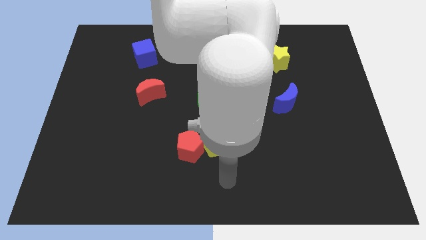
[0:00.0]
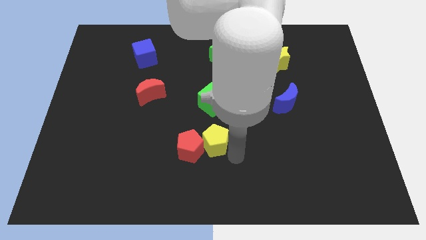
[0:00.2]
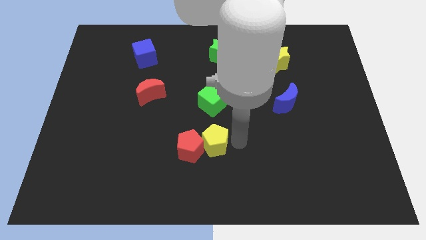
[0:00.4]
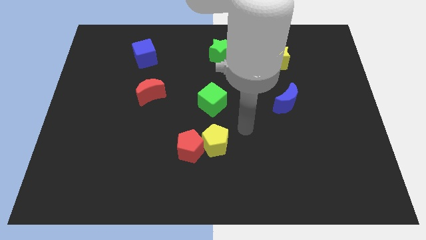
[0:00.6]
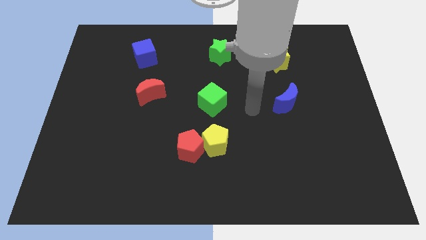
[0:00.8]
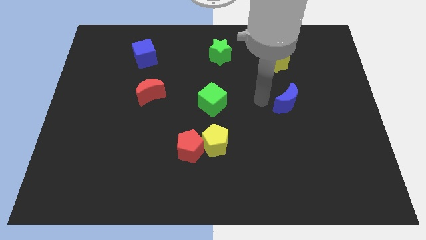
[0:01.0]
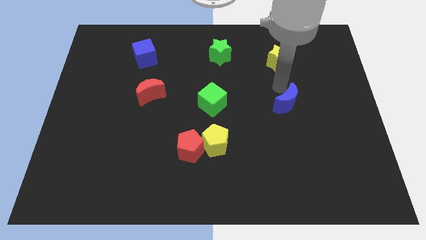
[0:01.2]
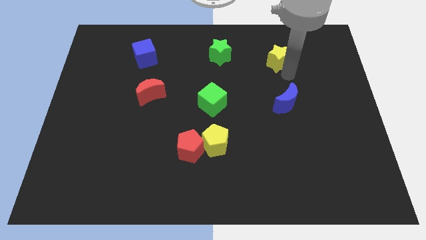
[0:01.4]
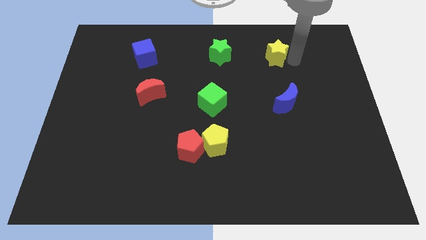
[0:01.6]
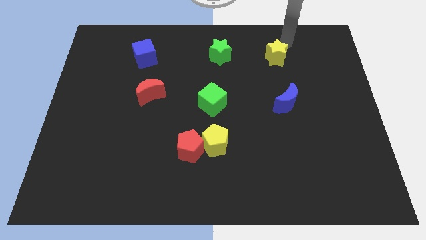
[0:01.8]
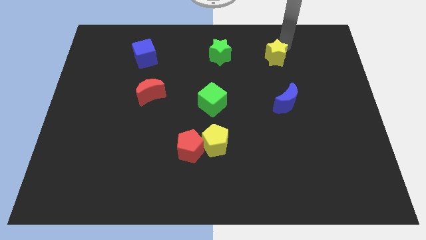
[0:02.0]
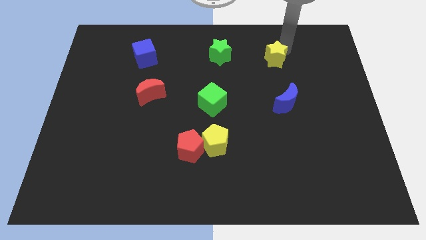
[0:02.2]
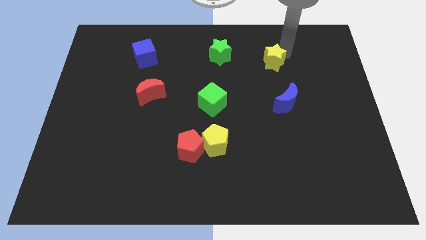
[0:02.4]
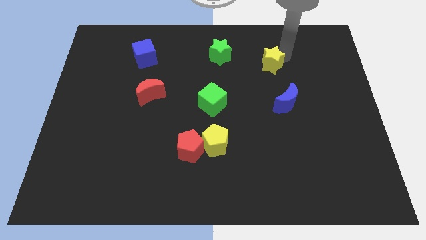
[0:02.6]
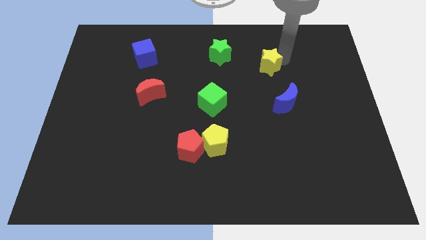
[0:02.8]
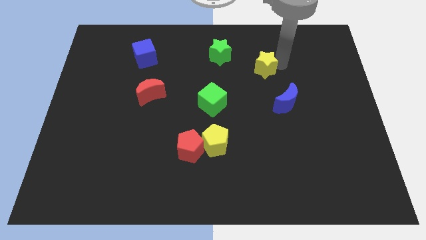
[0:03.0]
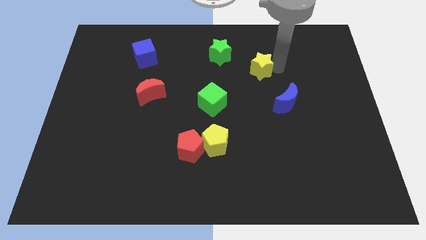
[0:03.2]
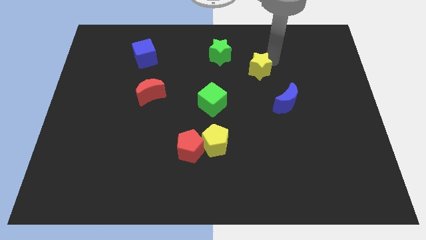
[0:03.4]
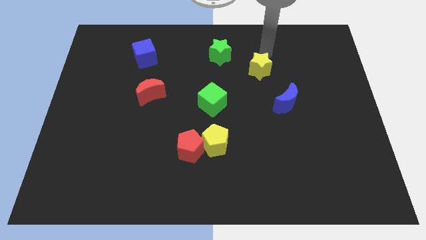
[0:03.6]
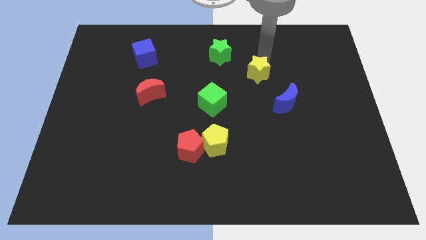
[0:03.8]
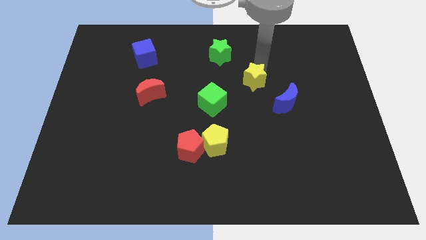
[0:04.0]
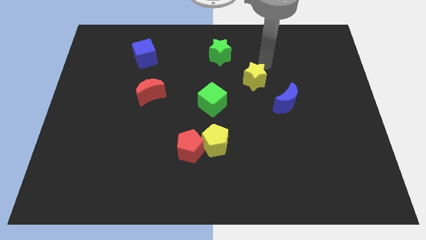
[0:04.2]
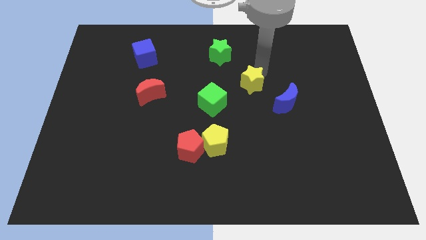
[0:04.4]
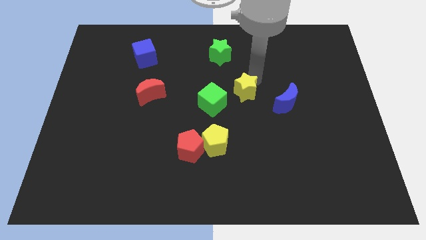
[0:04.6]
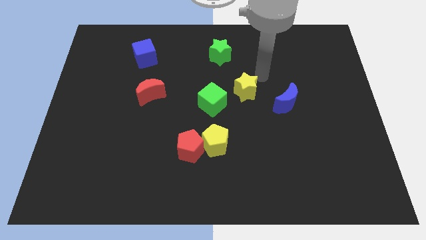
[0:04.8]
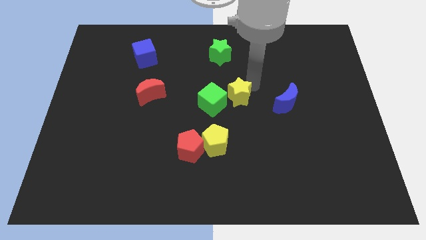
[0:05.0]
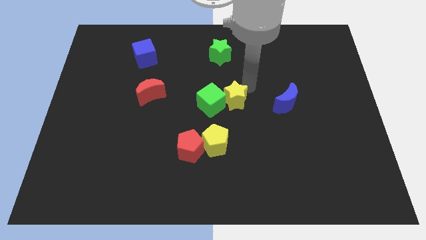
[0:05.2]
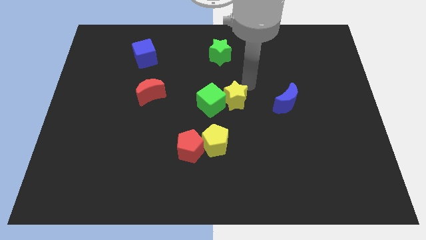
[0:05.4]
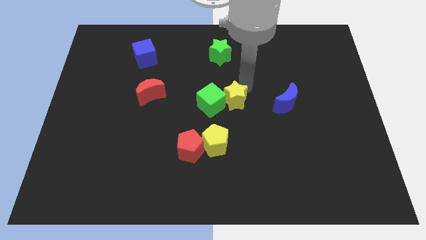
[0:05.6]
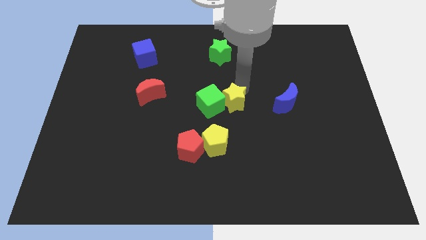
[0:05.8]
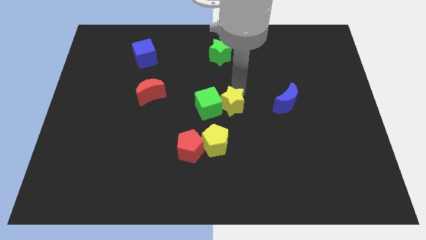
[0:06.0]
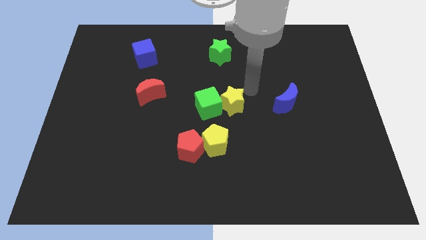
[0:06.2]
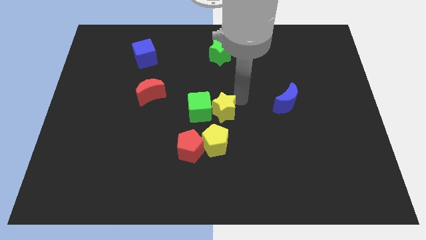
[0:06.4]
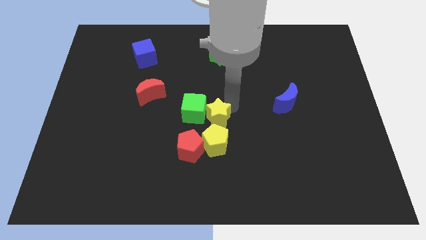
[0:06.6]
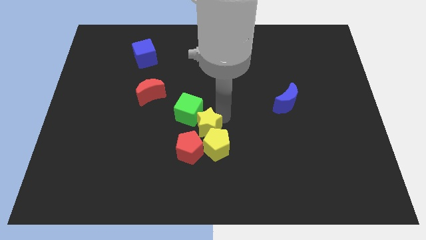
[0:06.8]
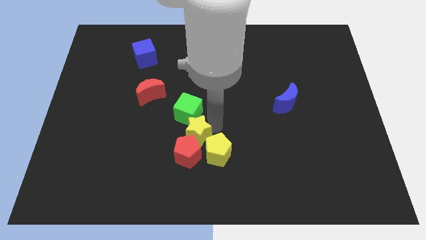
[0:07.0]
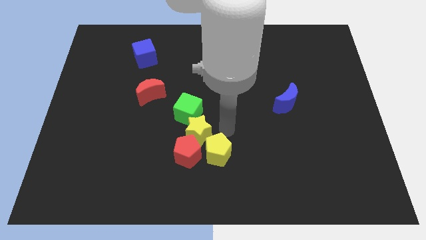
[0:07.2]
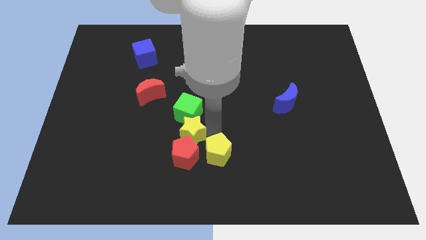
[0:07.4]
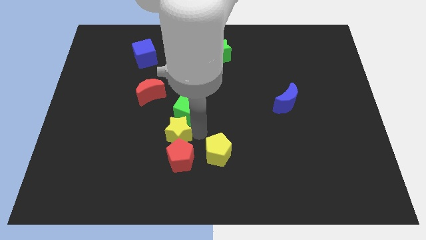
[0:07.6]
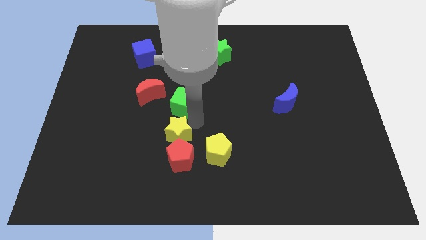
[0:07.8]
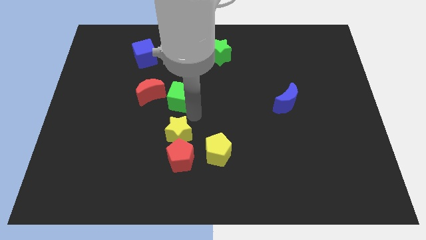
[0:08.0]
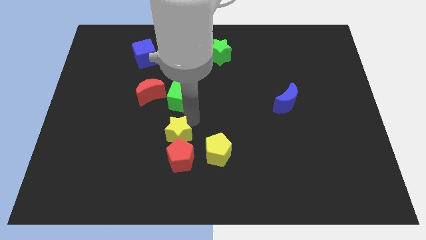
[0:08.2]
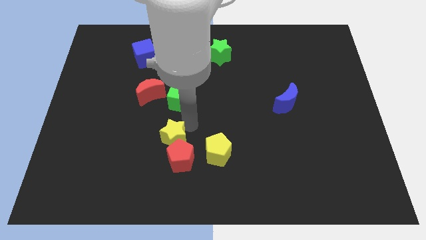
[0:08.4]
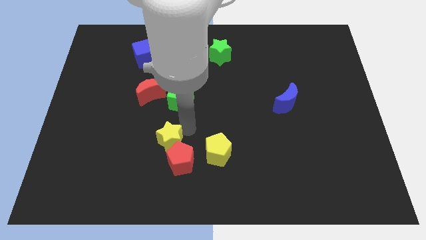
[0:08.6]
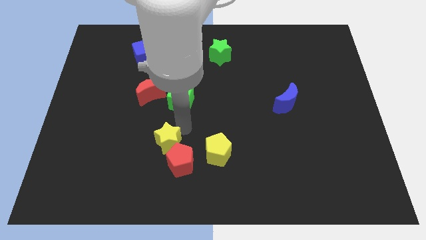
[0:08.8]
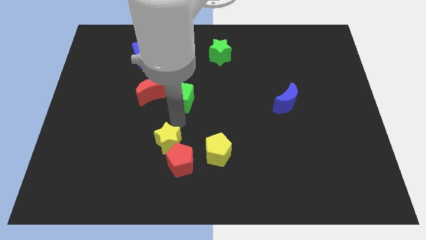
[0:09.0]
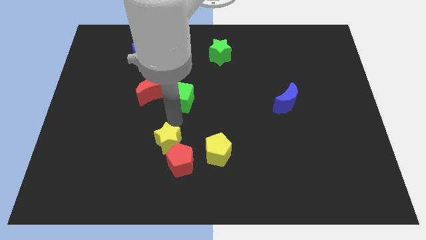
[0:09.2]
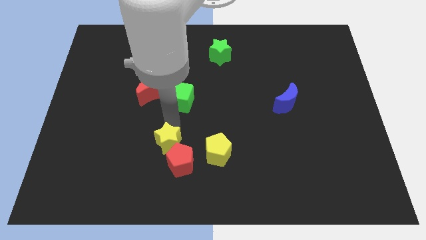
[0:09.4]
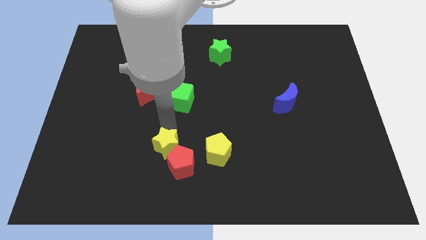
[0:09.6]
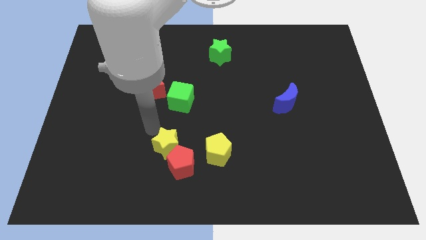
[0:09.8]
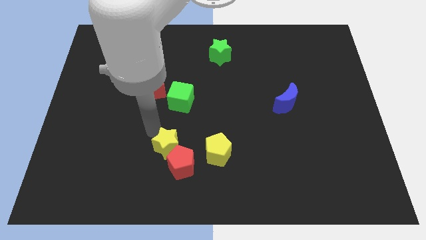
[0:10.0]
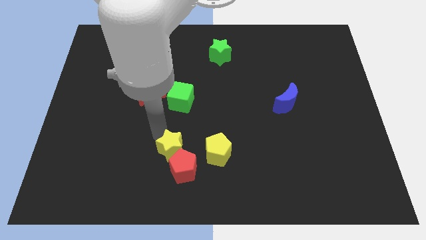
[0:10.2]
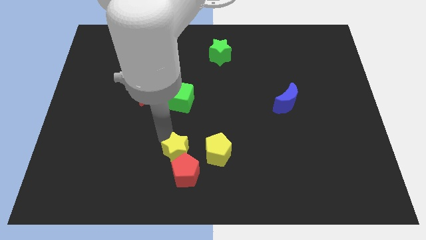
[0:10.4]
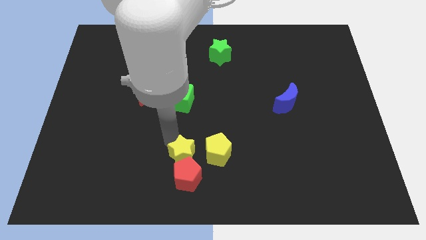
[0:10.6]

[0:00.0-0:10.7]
move the yellow star to the bottom left of the yellow pentagon

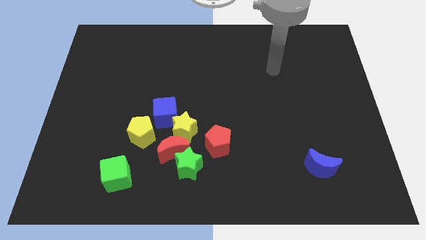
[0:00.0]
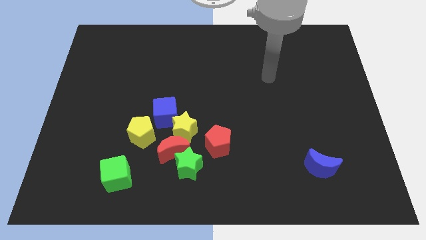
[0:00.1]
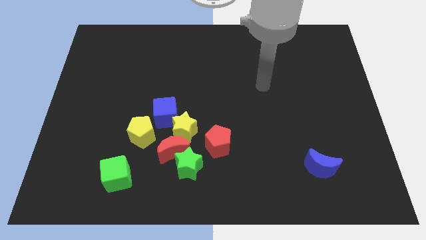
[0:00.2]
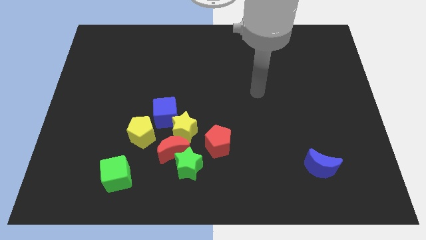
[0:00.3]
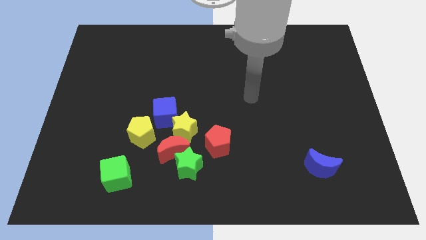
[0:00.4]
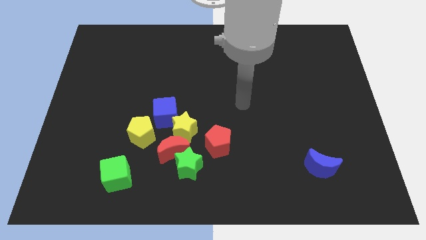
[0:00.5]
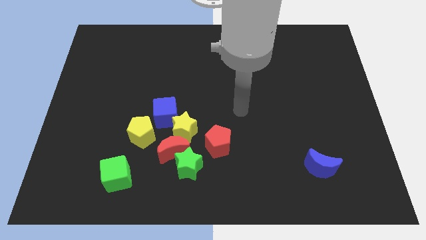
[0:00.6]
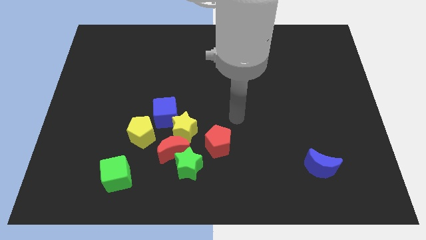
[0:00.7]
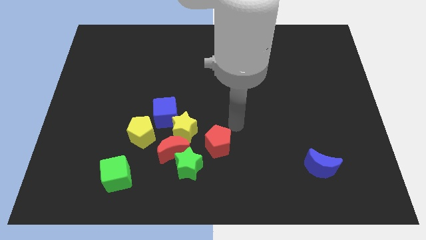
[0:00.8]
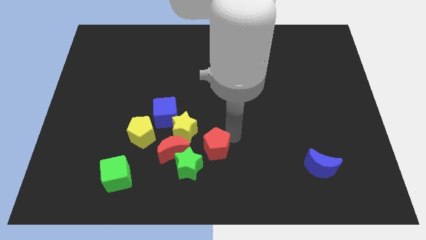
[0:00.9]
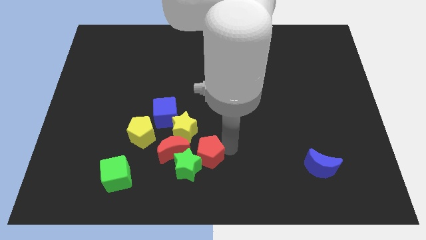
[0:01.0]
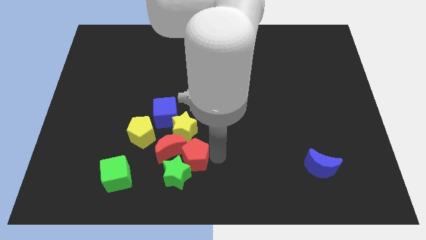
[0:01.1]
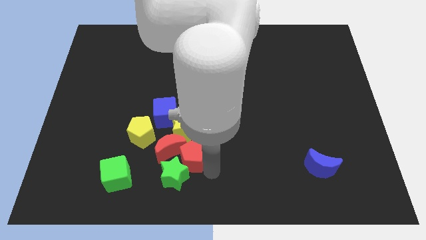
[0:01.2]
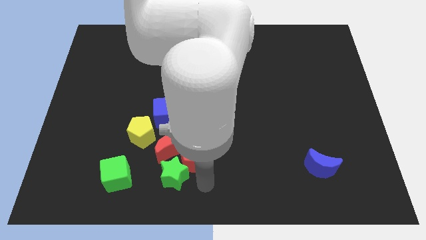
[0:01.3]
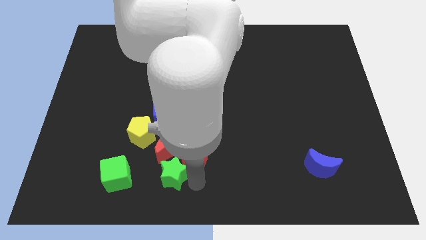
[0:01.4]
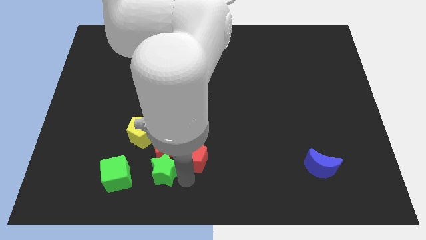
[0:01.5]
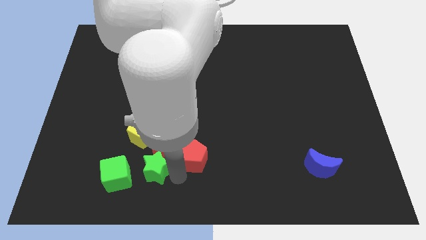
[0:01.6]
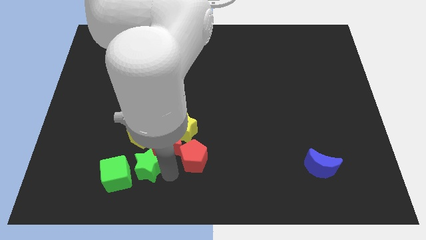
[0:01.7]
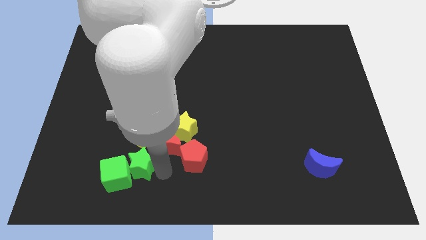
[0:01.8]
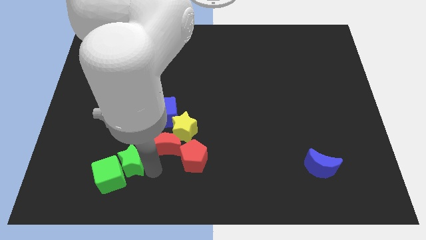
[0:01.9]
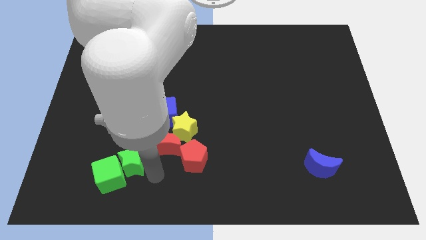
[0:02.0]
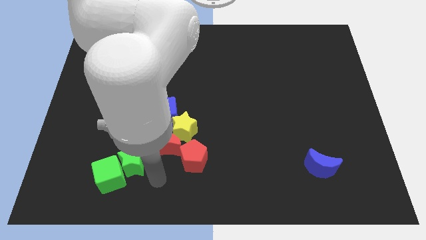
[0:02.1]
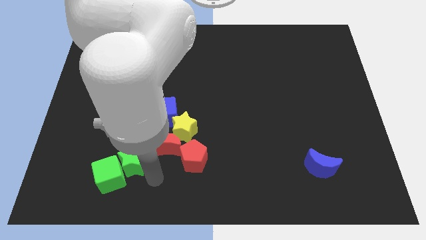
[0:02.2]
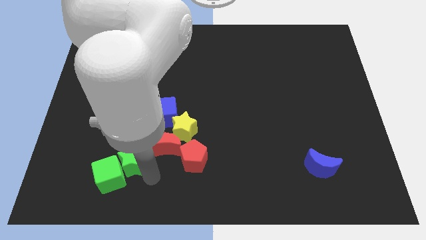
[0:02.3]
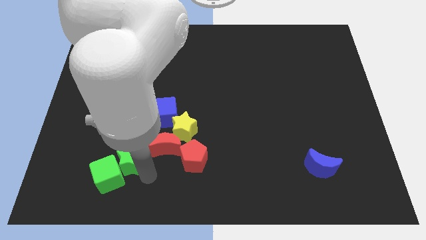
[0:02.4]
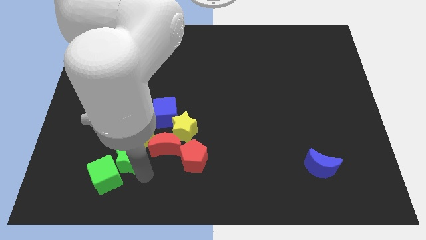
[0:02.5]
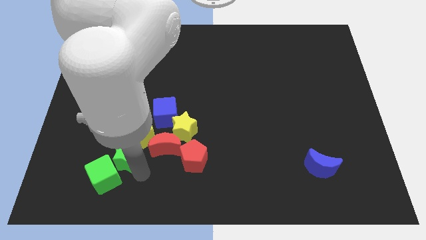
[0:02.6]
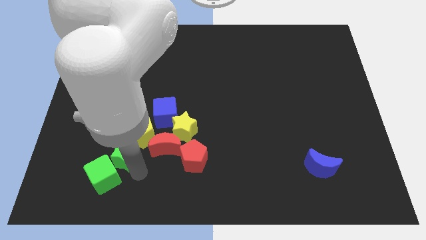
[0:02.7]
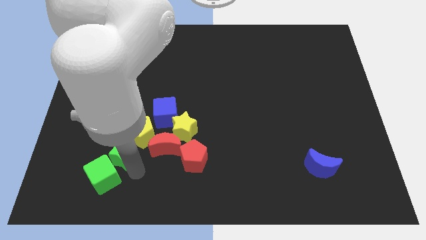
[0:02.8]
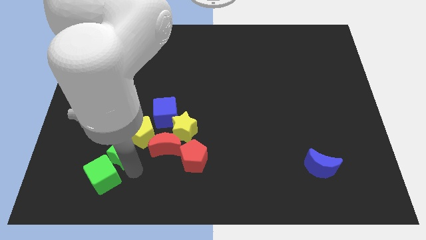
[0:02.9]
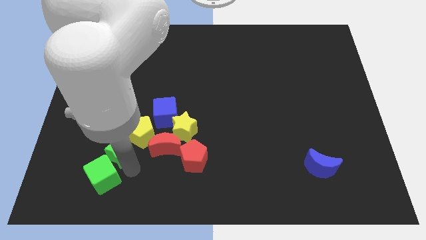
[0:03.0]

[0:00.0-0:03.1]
slide the green star left of the yellow pentagon
